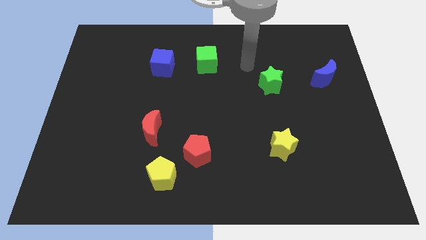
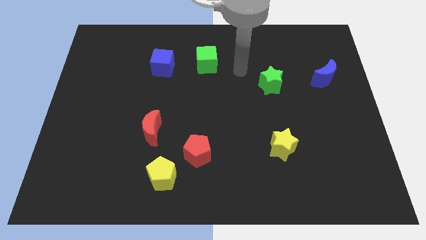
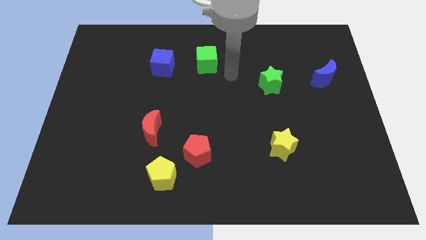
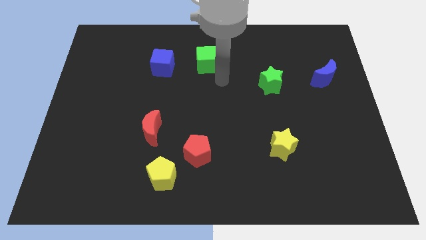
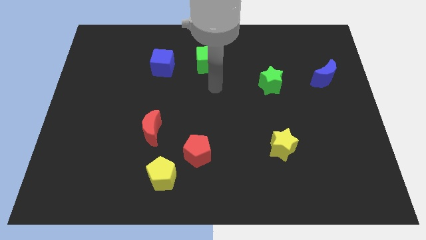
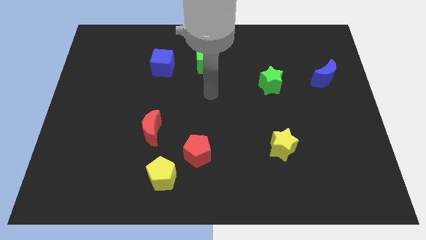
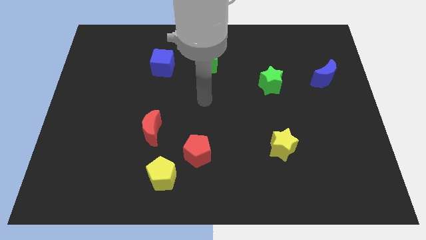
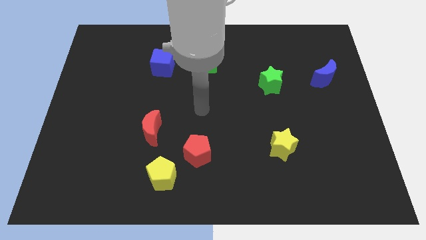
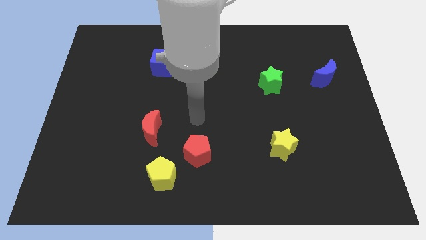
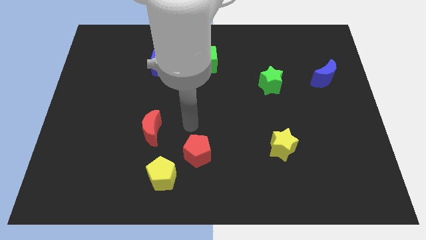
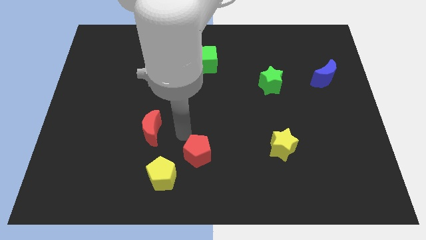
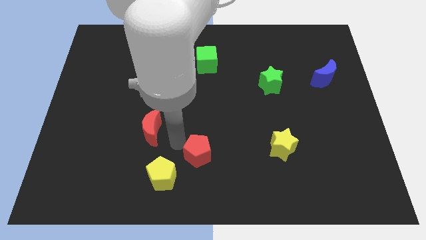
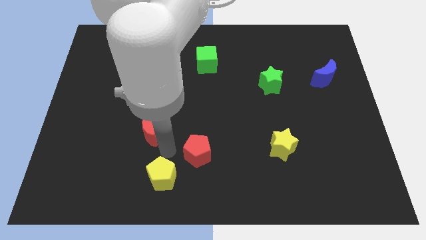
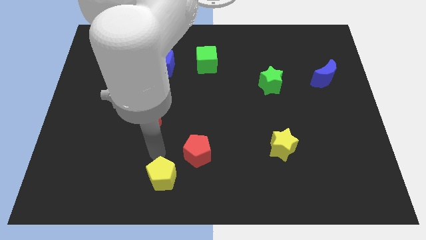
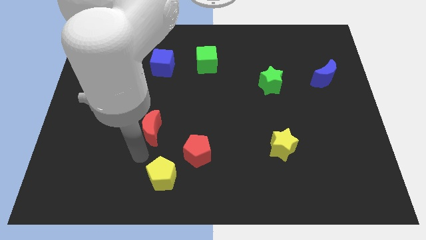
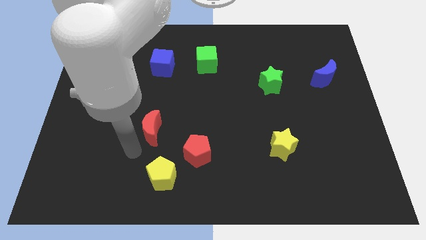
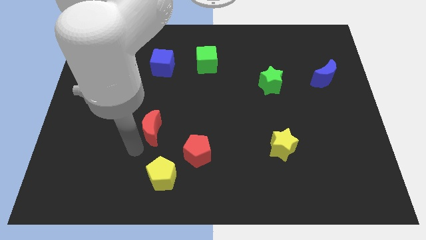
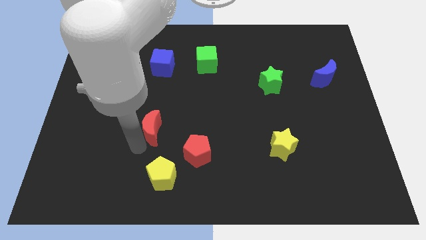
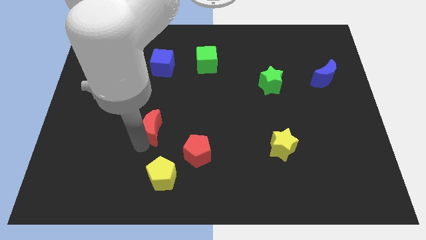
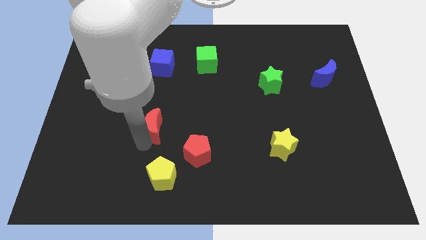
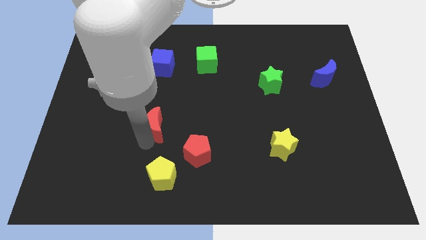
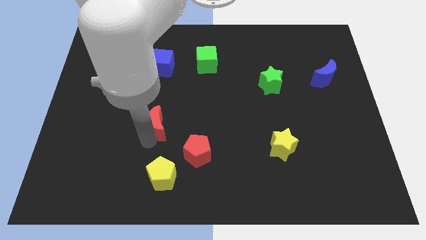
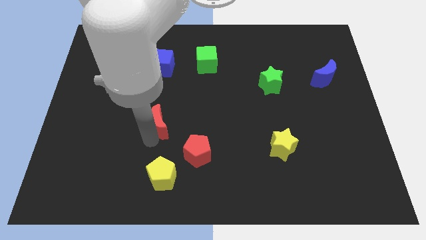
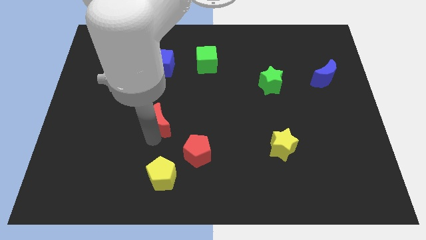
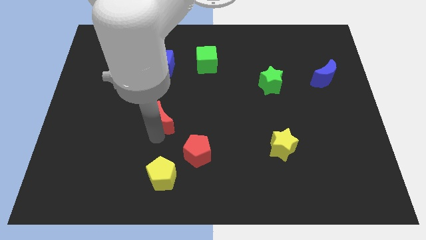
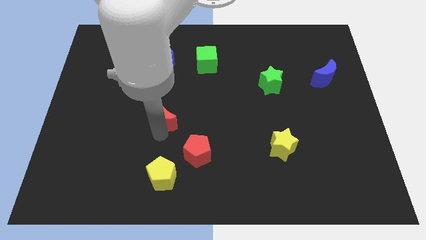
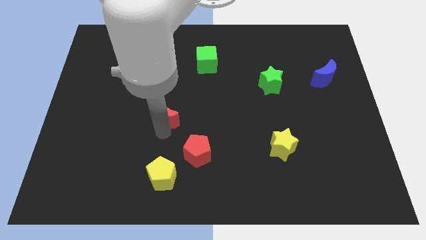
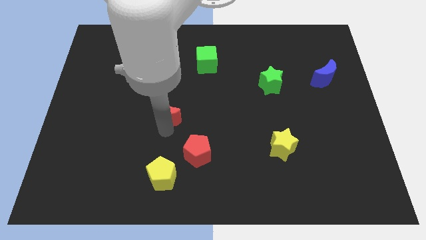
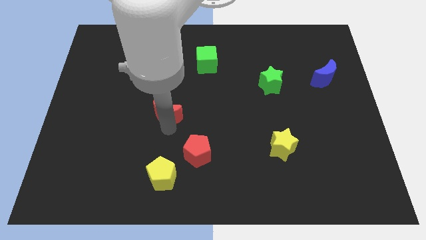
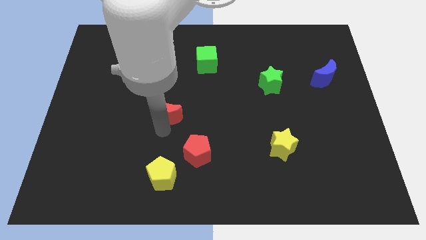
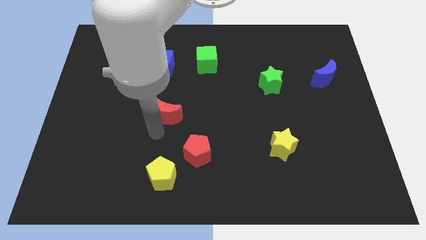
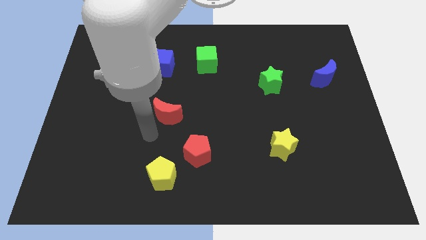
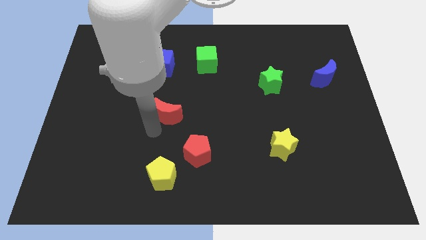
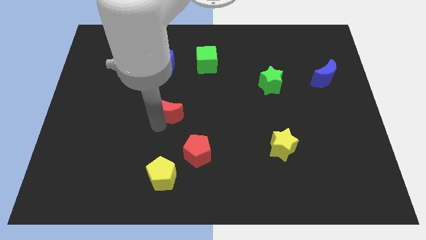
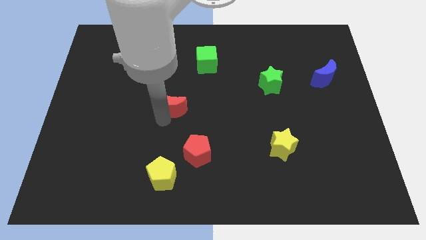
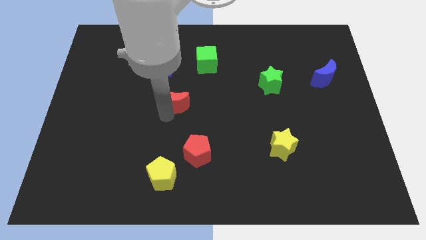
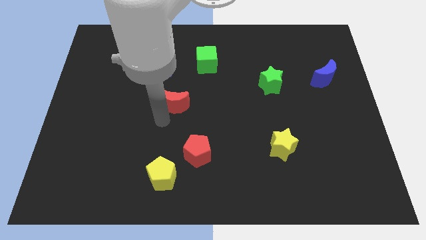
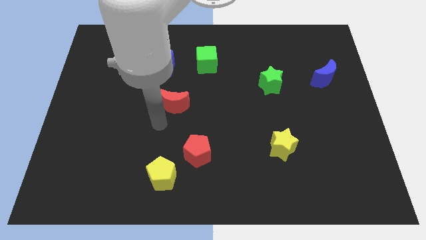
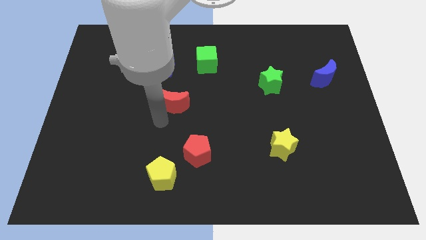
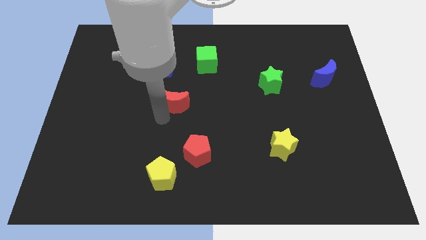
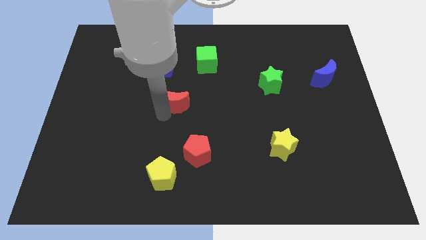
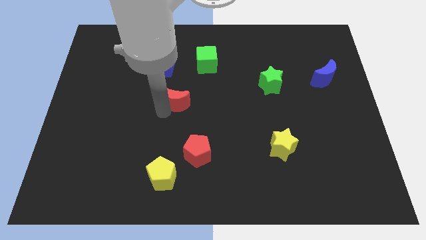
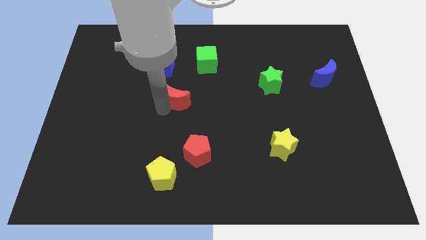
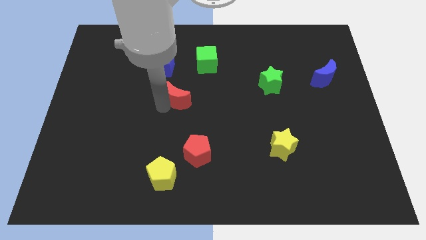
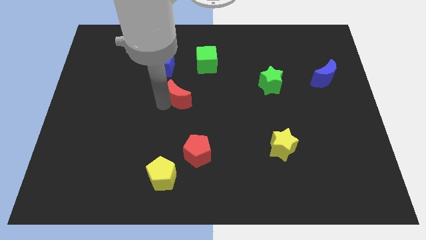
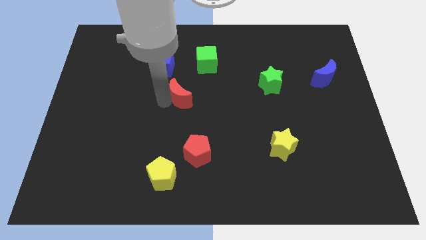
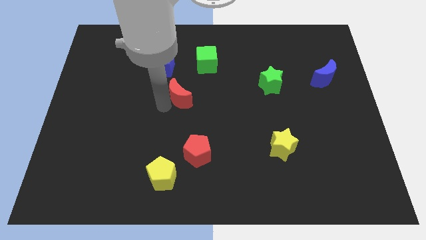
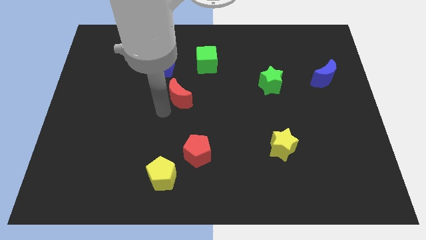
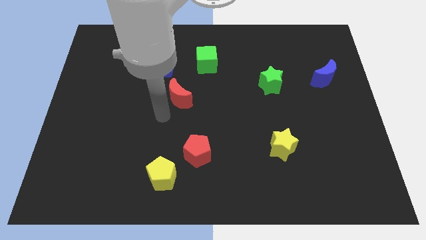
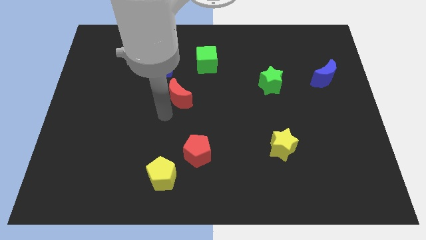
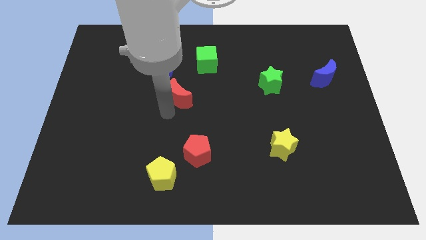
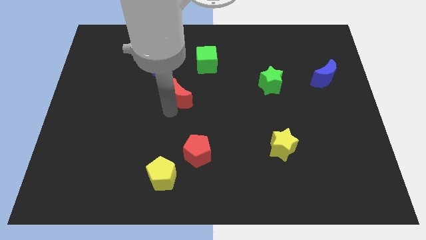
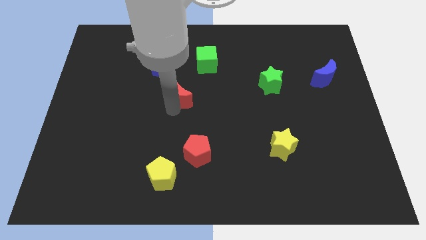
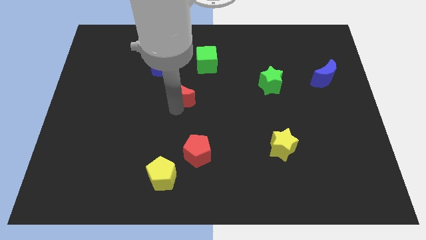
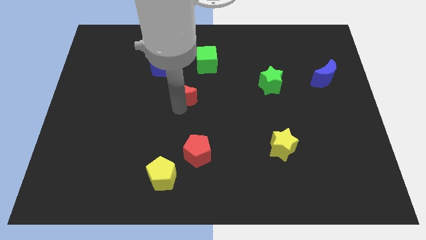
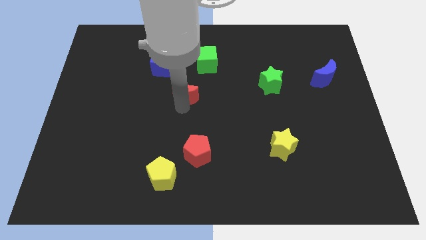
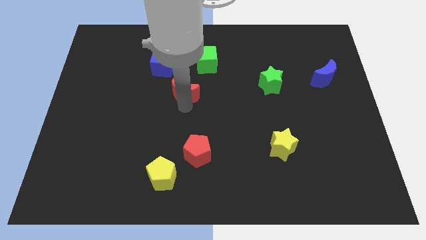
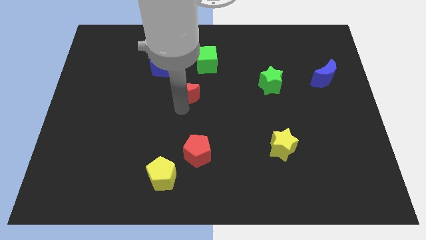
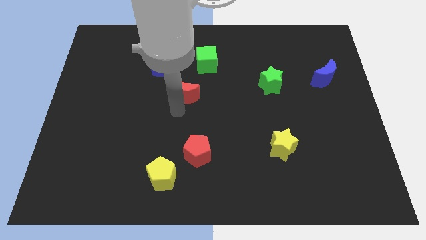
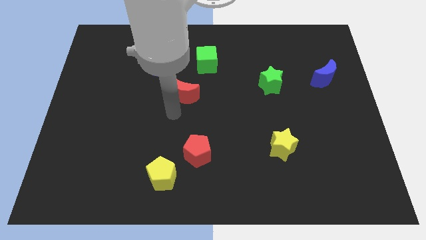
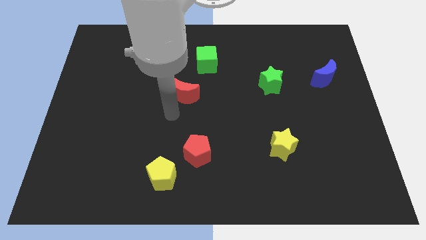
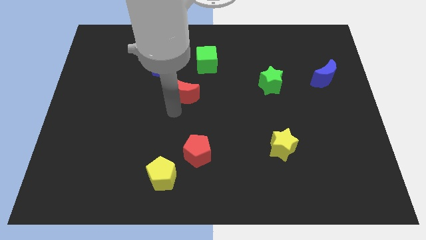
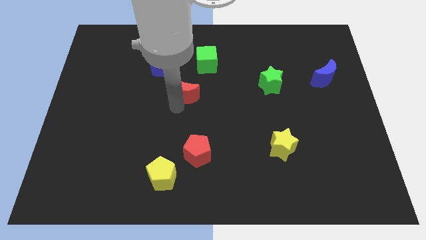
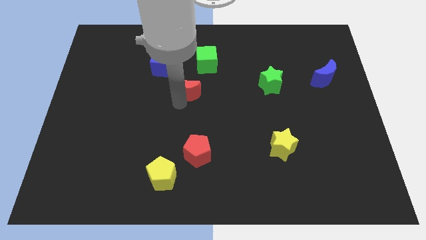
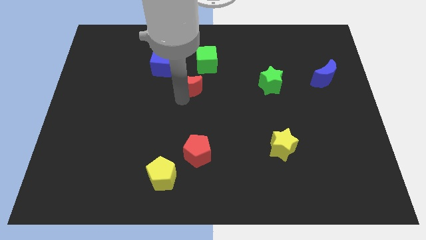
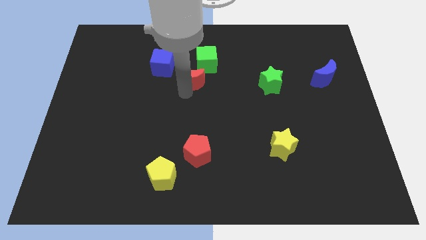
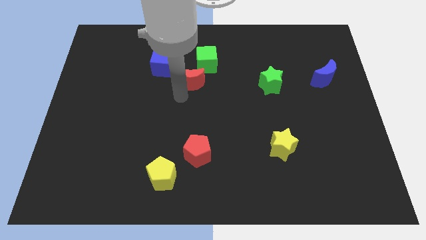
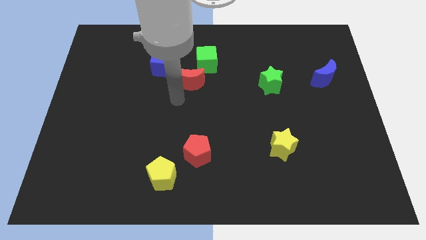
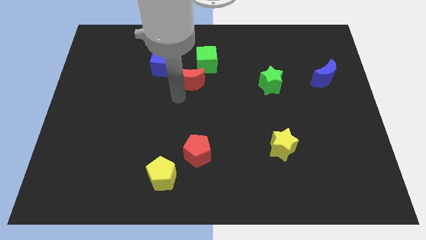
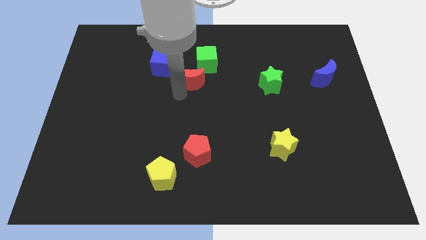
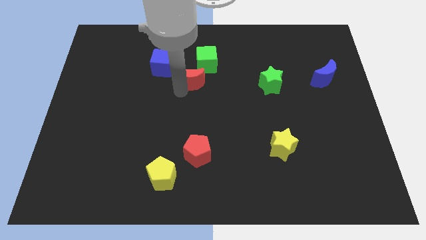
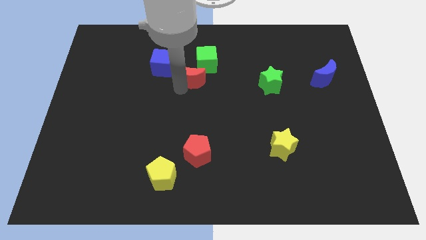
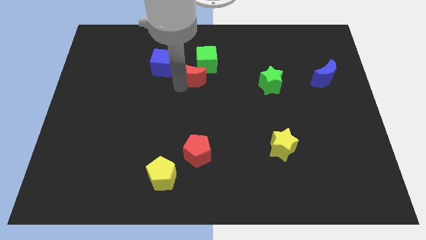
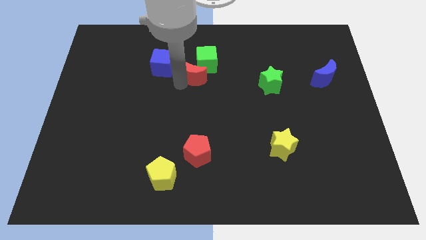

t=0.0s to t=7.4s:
move the red moon next to the green cube
